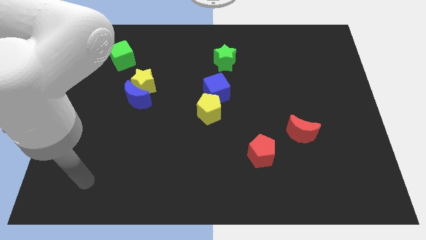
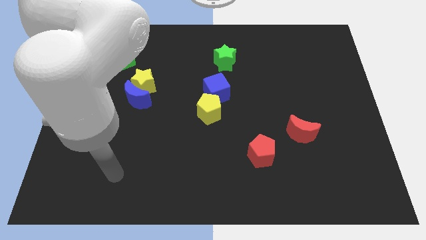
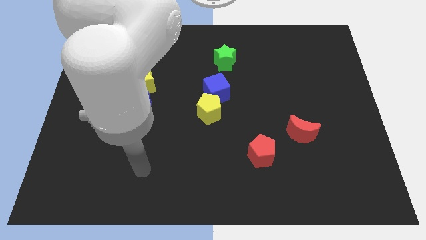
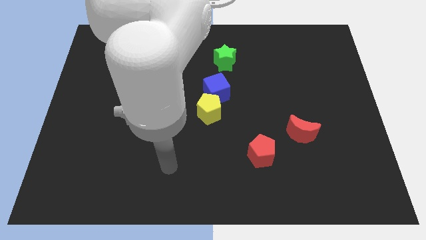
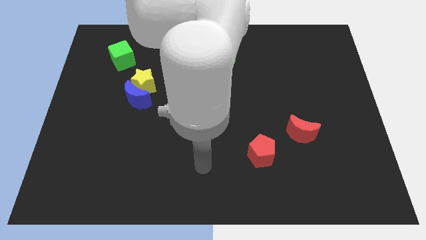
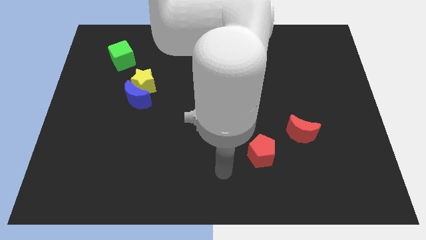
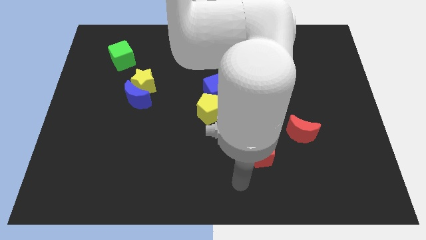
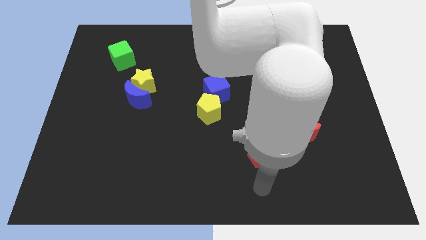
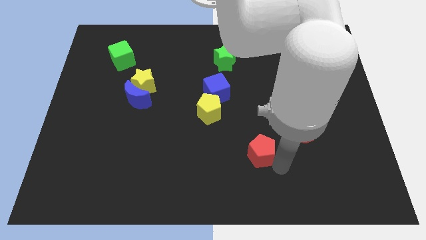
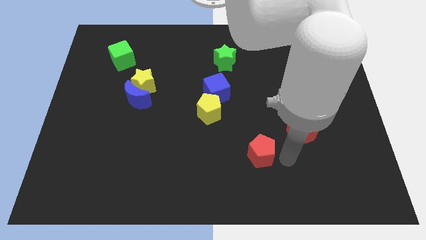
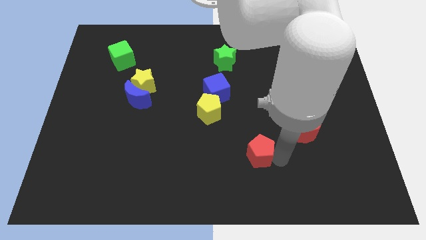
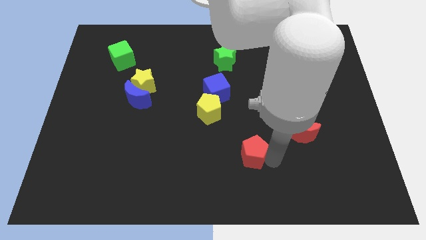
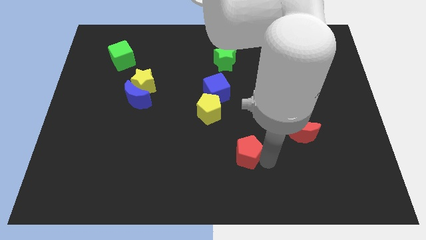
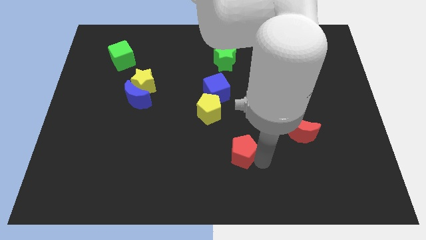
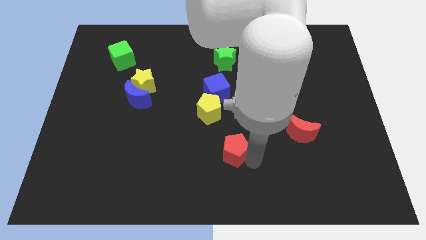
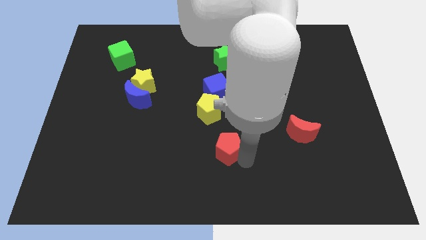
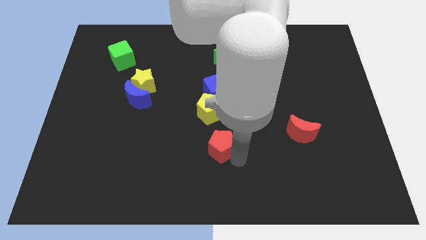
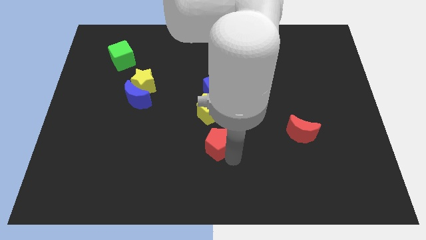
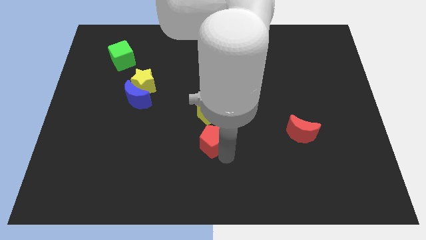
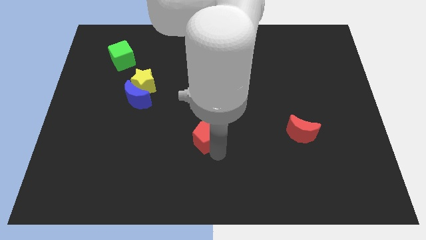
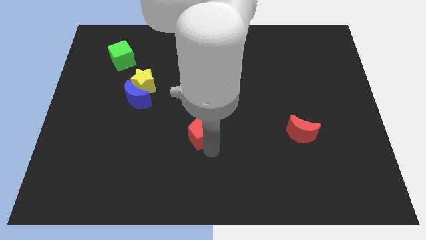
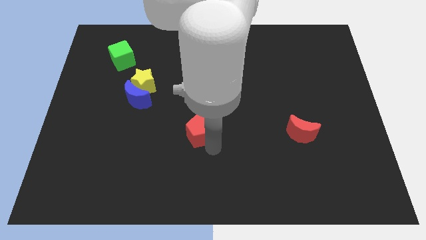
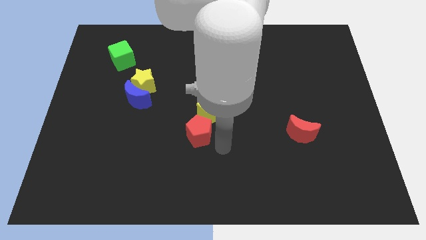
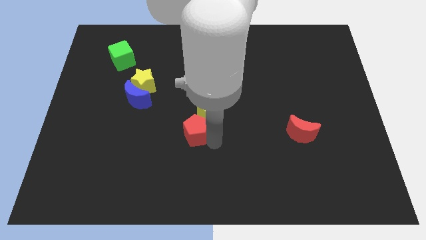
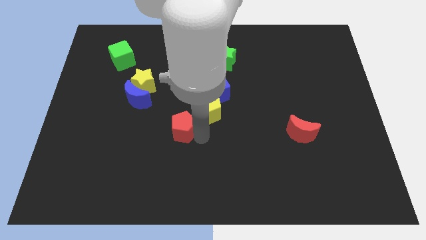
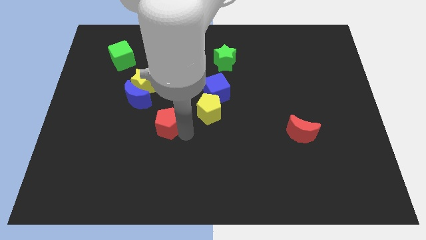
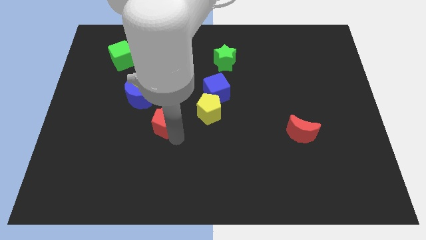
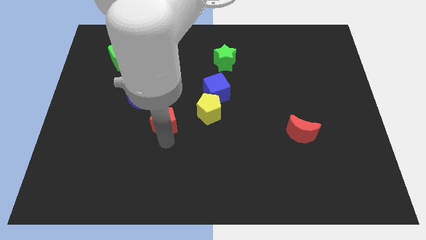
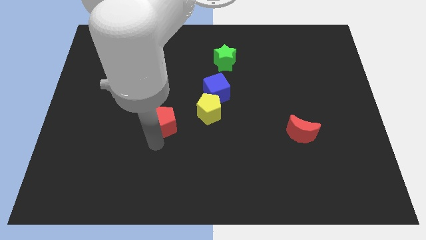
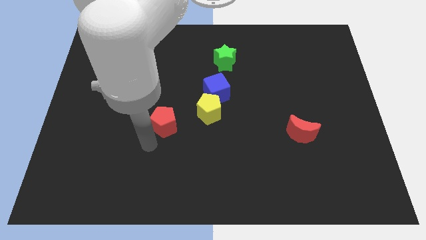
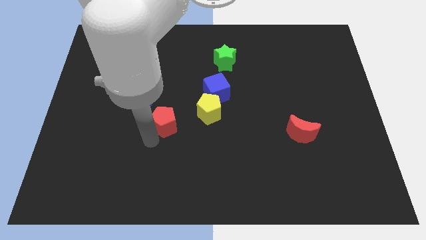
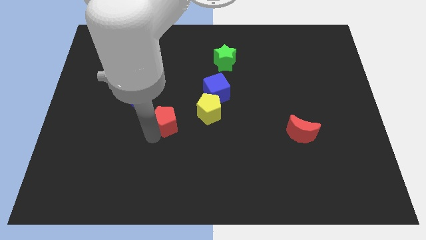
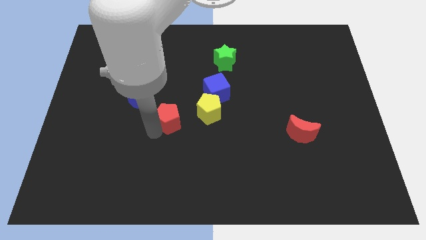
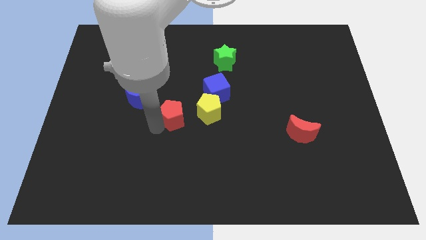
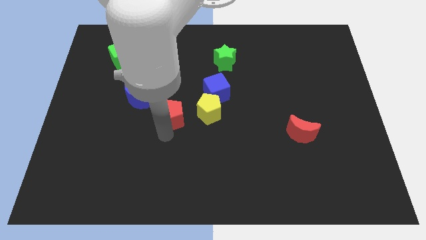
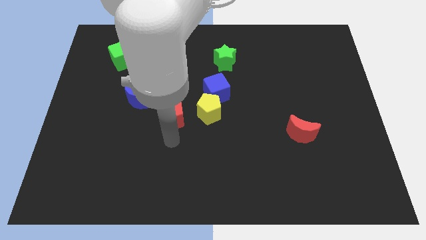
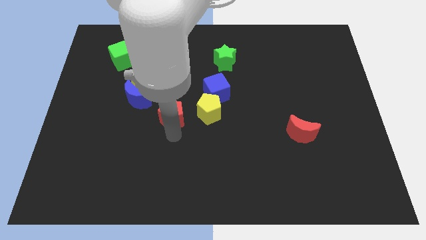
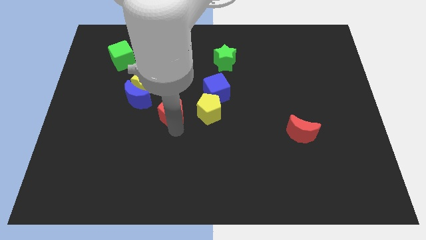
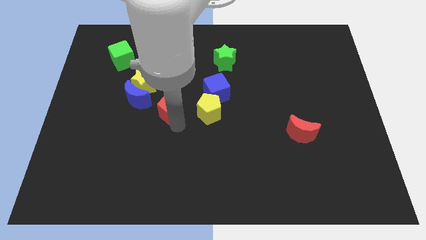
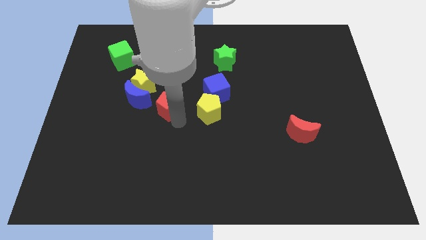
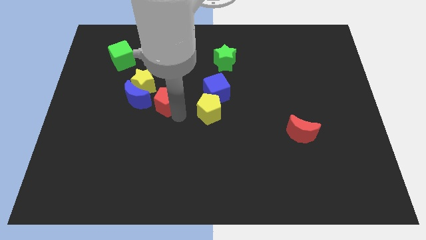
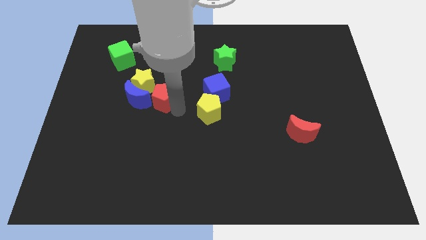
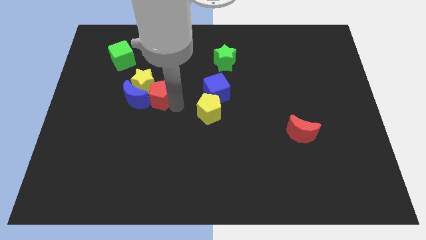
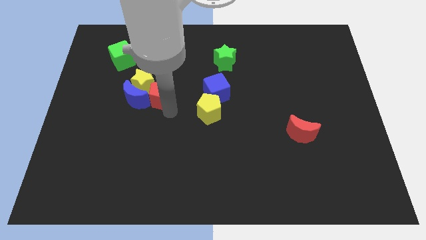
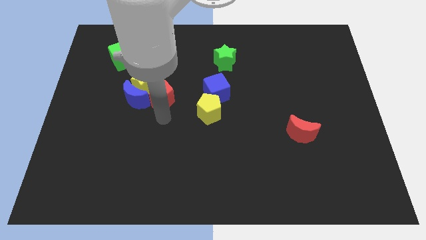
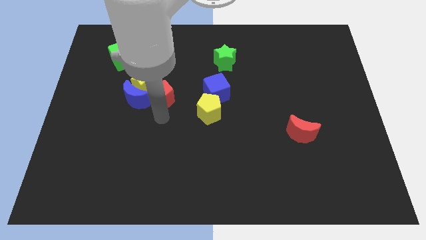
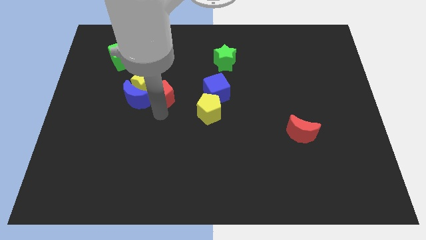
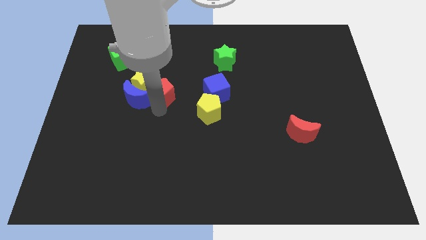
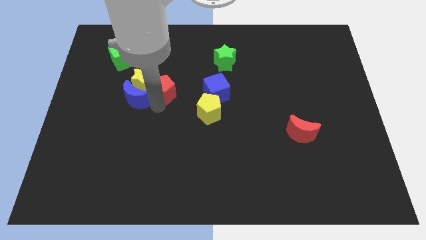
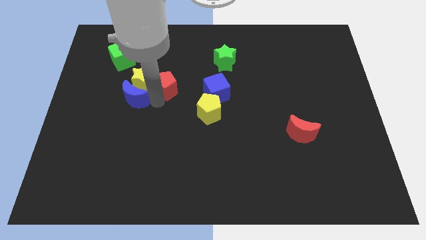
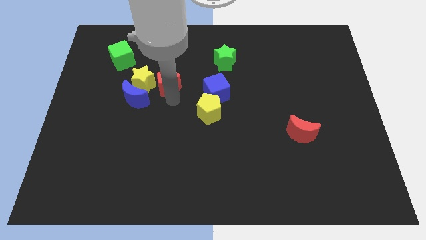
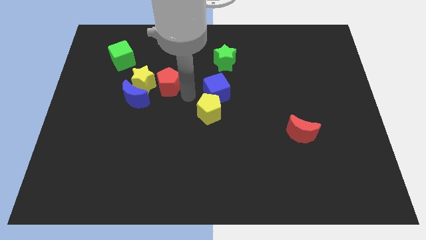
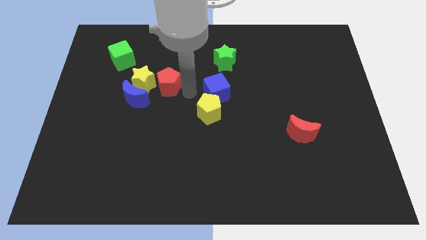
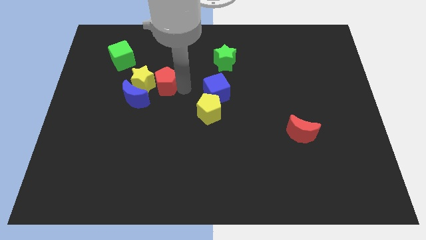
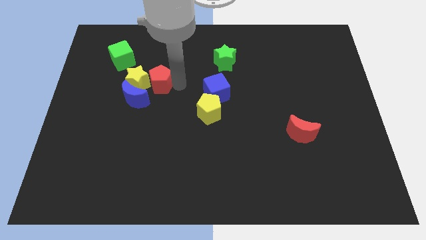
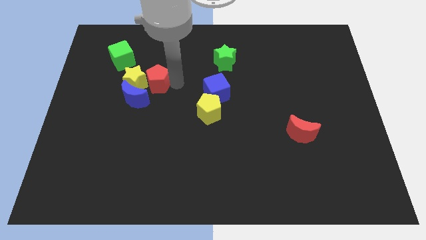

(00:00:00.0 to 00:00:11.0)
slide the red pentagon to the bottom right side of the green cube

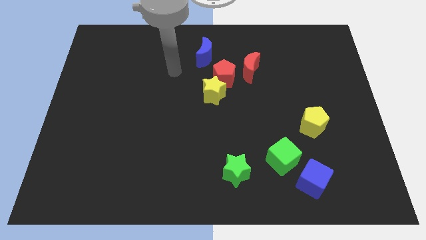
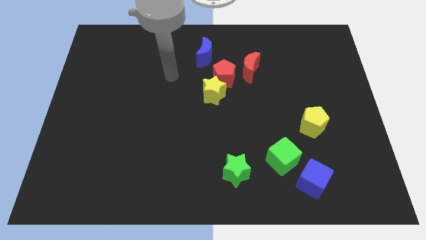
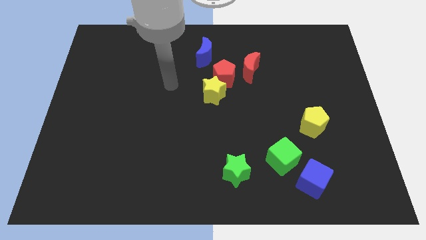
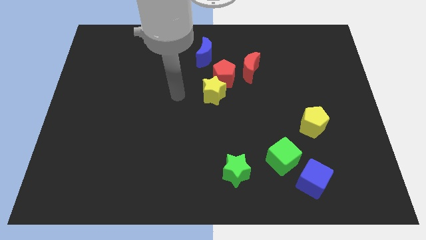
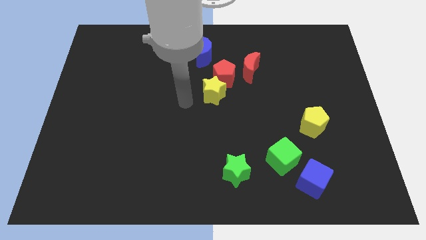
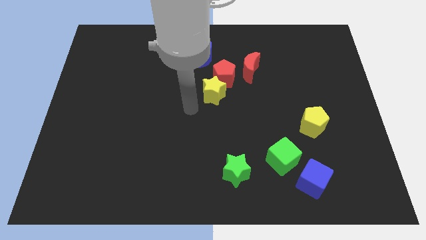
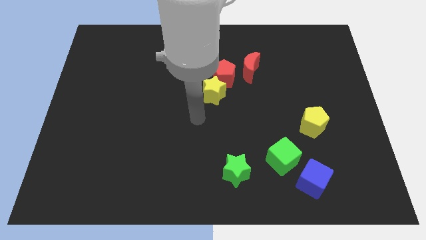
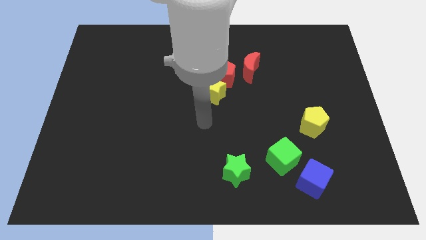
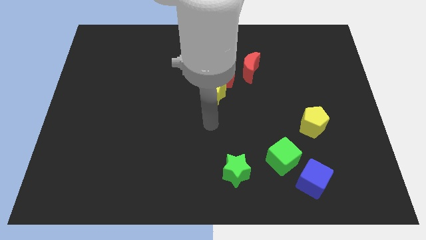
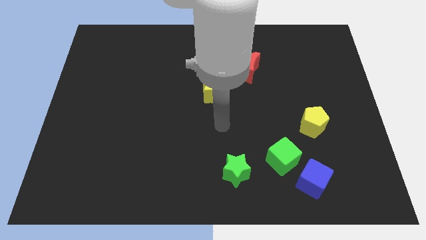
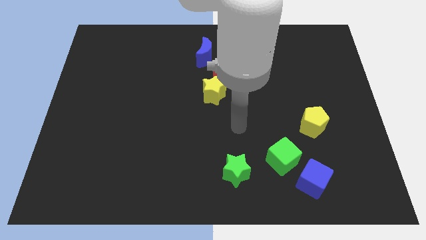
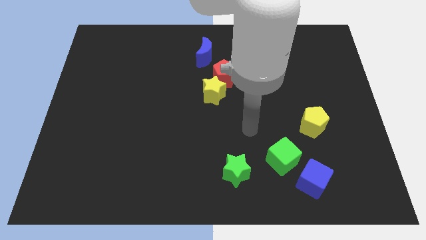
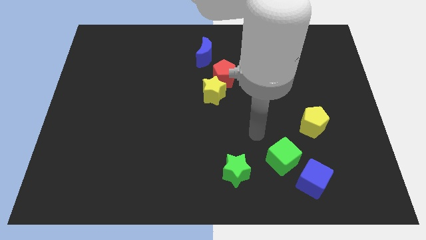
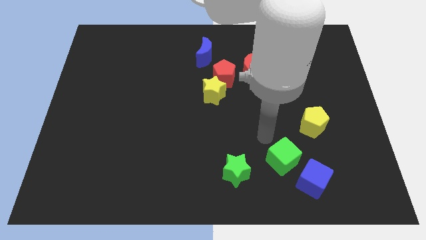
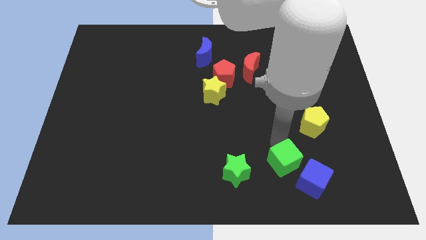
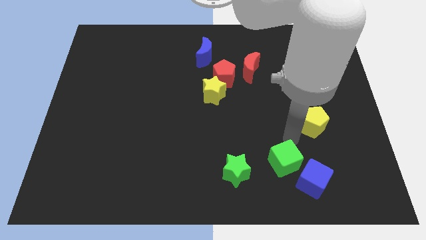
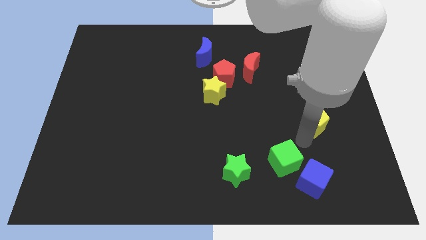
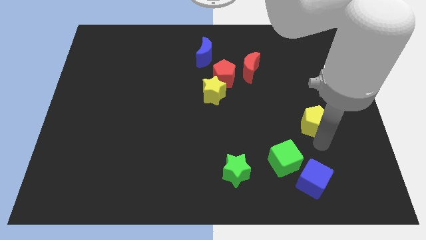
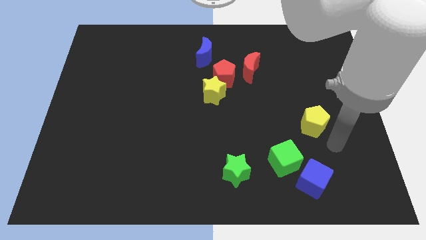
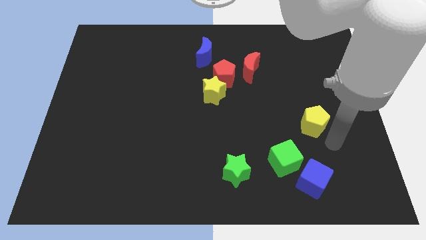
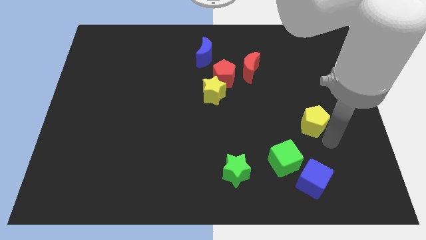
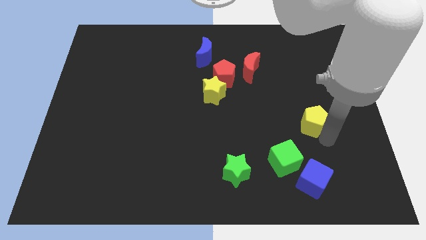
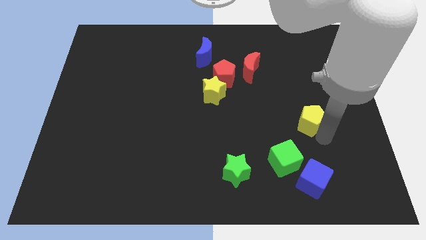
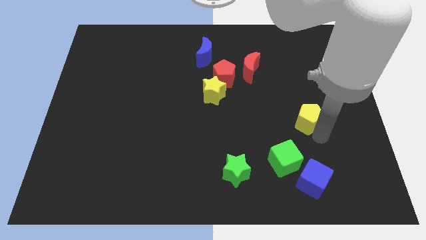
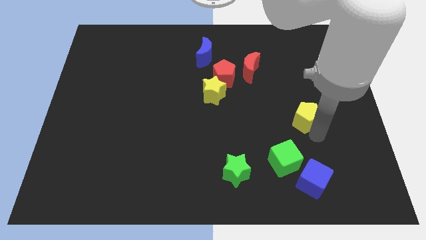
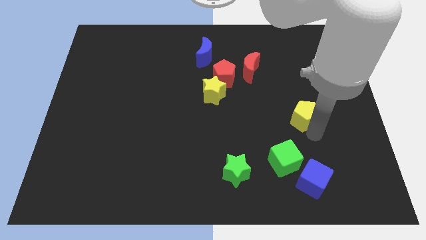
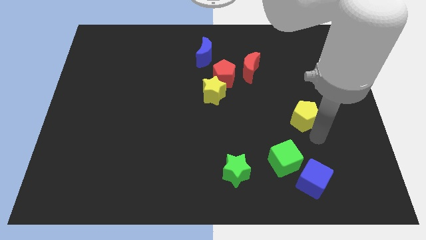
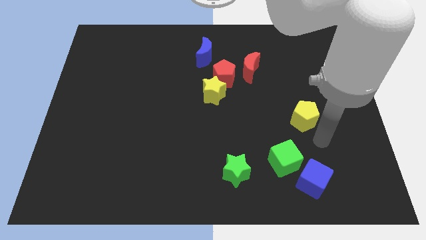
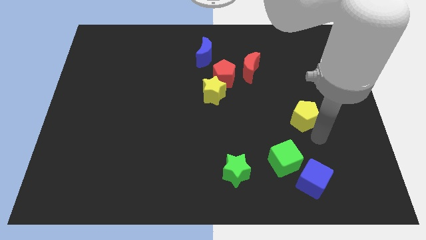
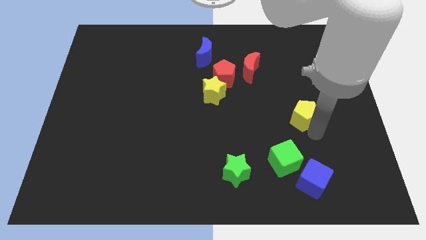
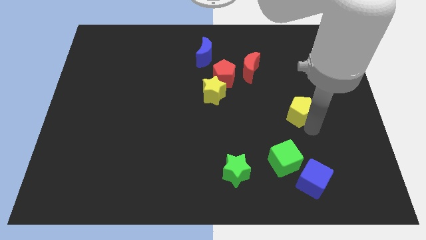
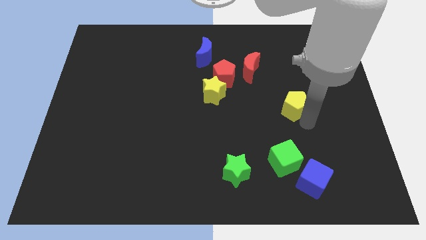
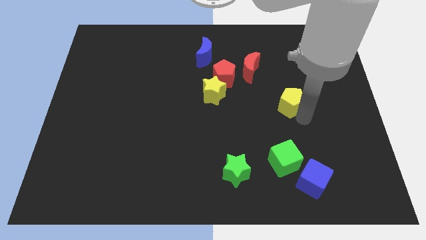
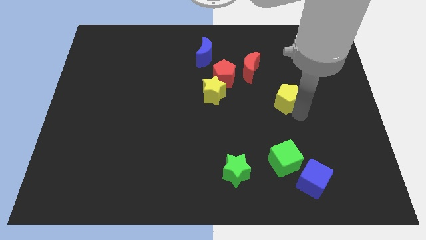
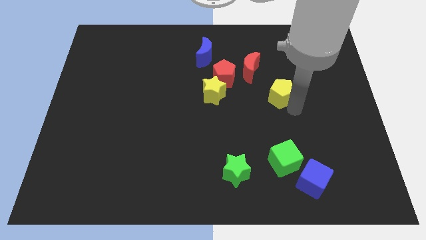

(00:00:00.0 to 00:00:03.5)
push the yellow pentagon to the bottom right side of the red moon
